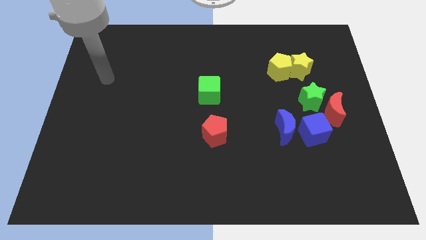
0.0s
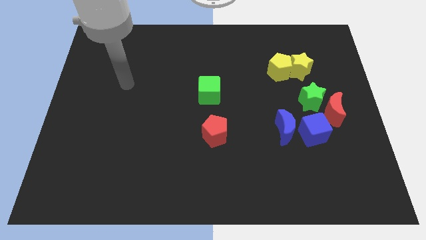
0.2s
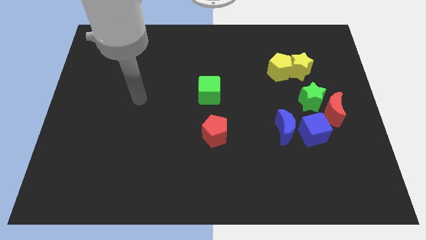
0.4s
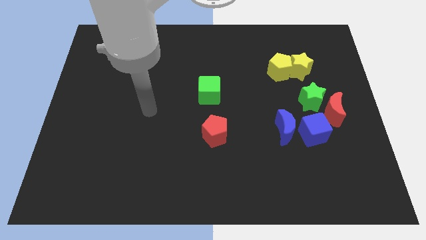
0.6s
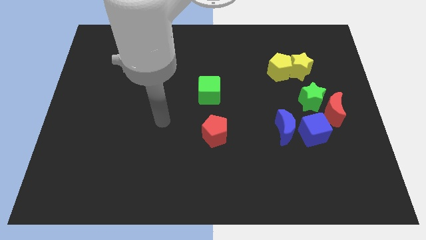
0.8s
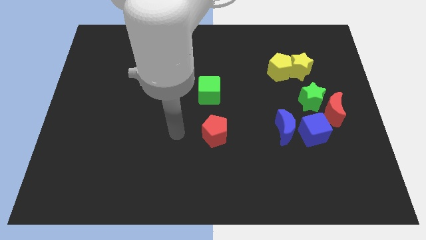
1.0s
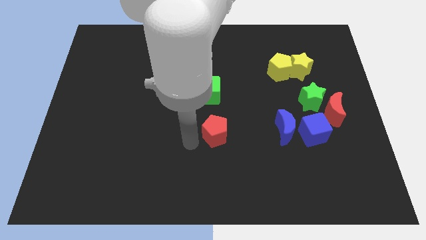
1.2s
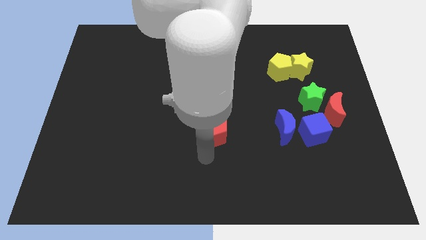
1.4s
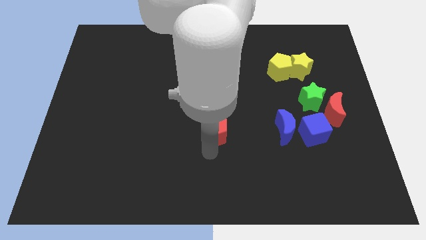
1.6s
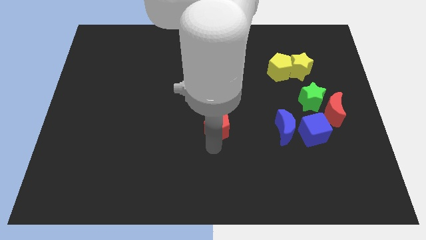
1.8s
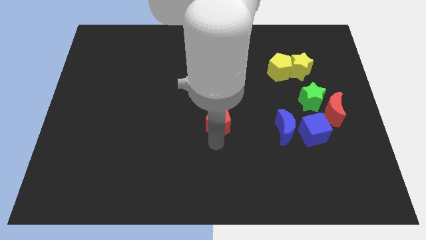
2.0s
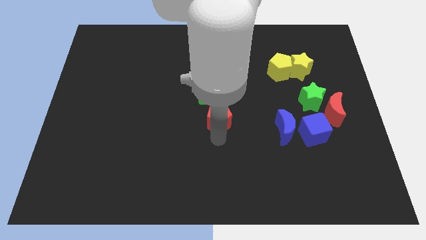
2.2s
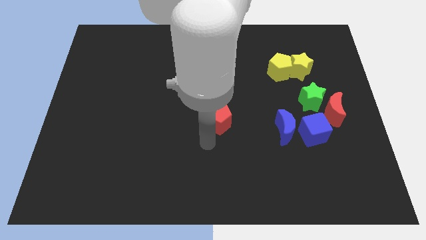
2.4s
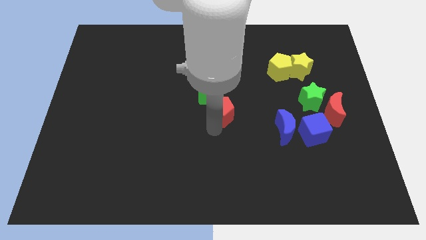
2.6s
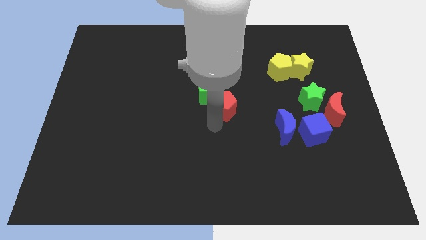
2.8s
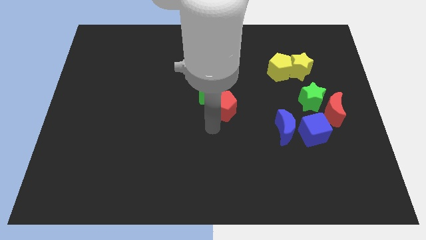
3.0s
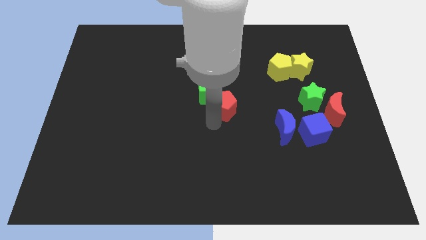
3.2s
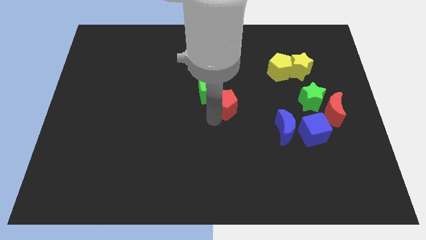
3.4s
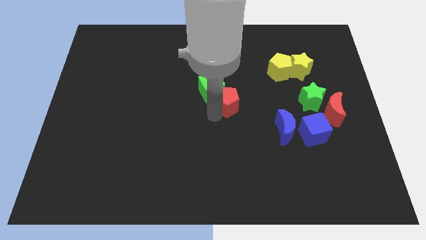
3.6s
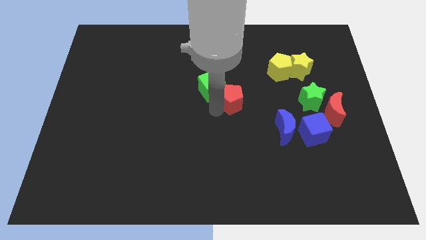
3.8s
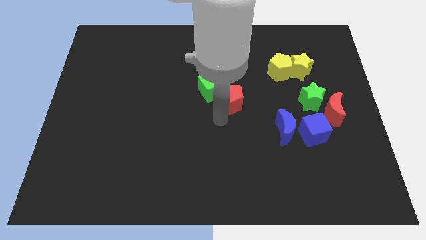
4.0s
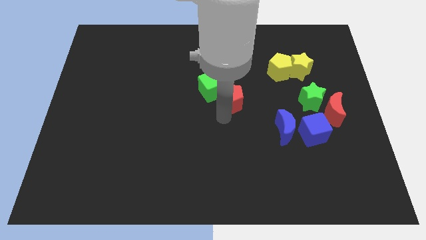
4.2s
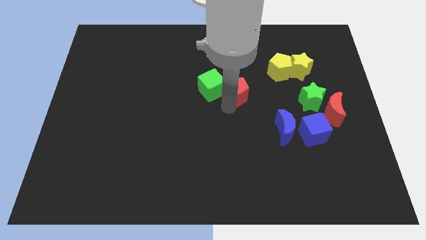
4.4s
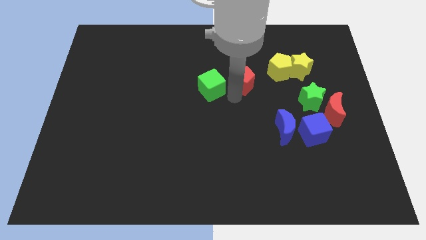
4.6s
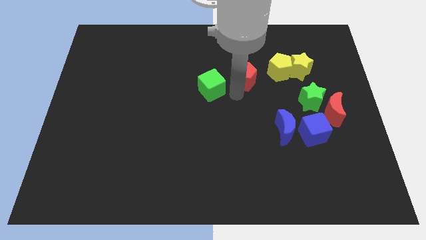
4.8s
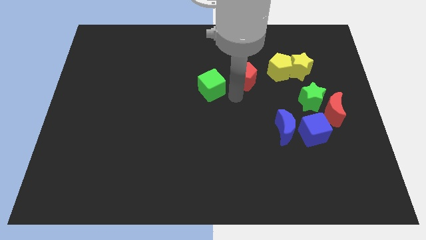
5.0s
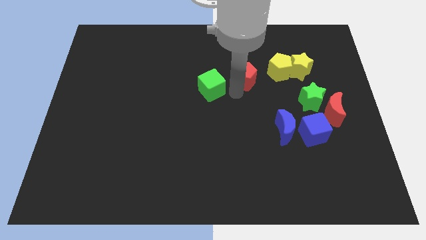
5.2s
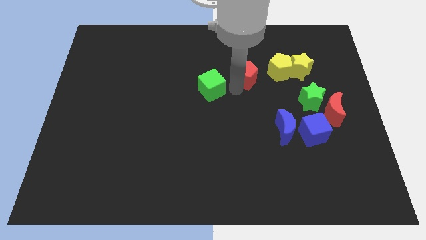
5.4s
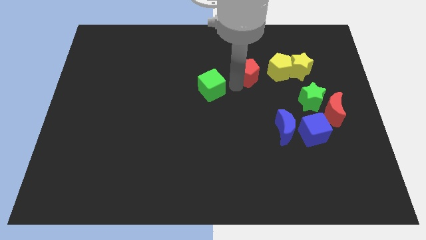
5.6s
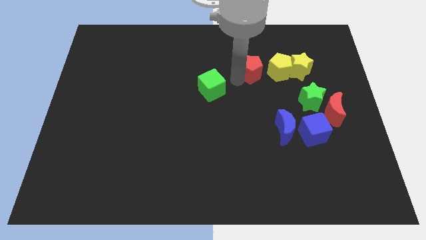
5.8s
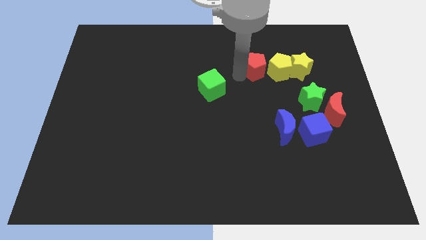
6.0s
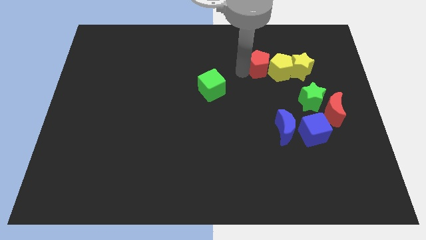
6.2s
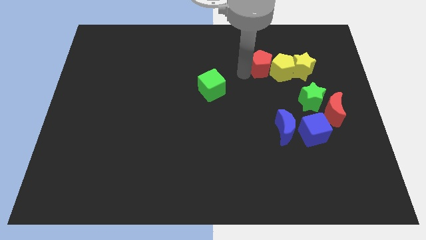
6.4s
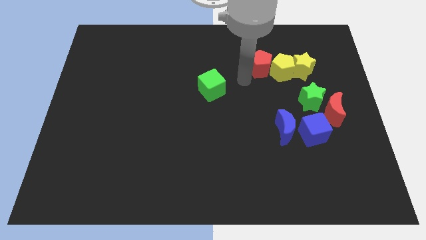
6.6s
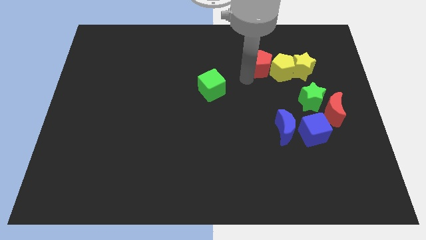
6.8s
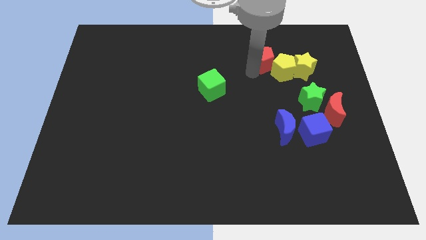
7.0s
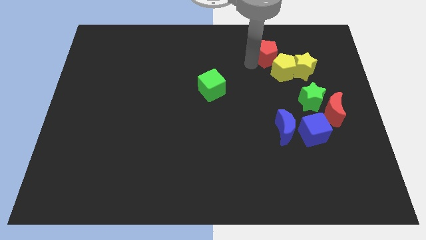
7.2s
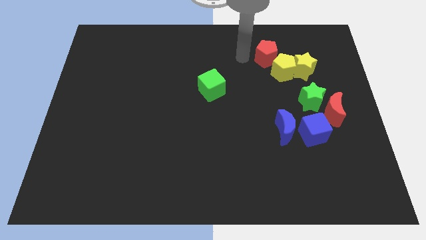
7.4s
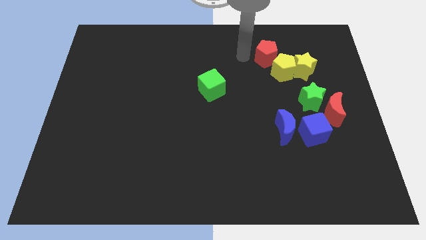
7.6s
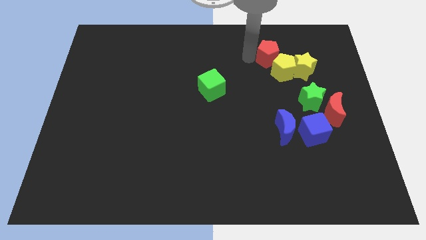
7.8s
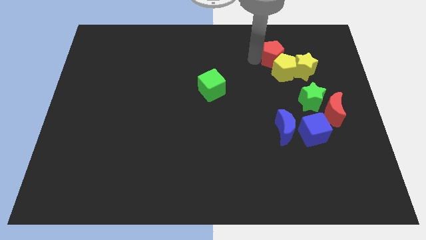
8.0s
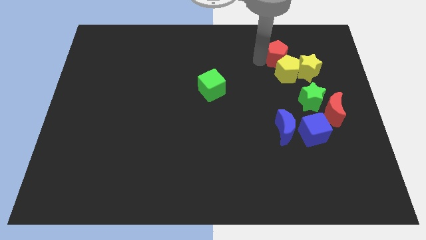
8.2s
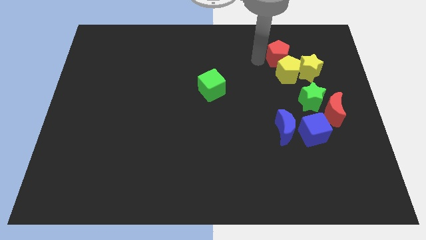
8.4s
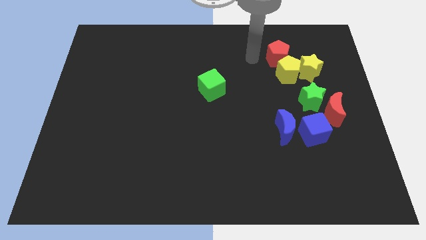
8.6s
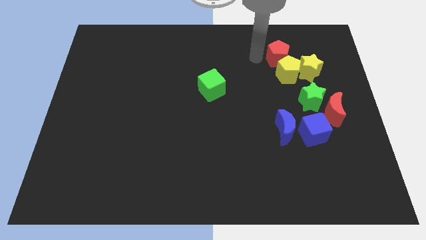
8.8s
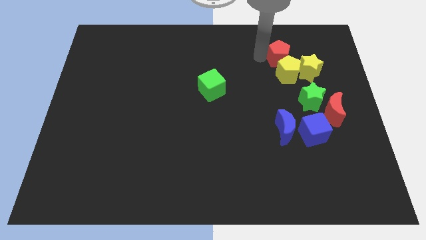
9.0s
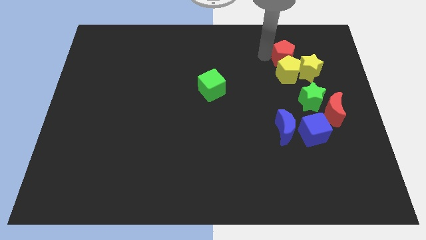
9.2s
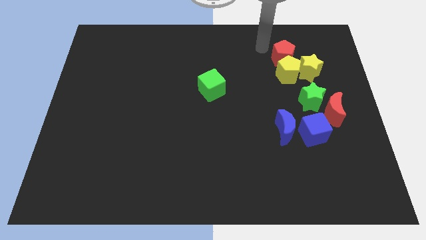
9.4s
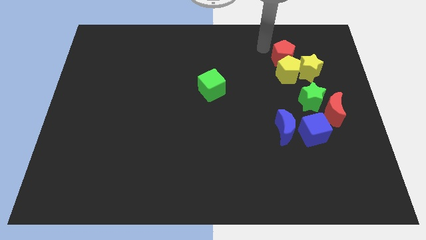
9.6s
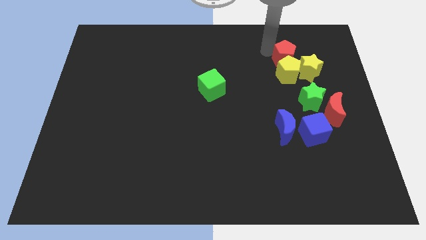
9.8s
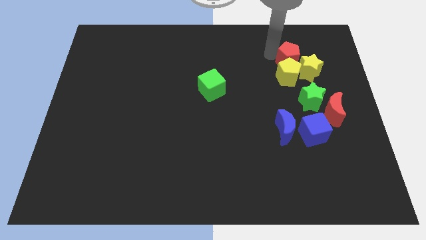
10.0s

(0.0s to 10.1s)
move the red pentagon above the green star

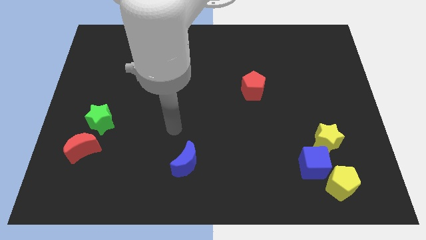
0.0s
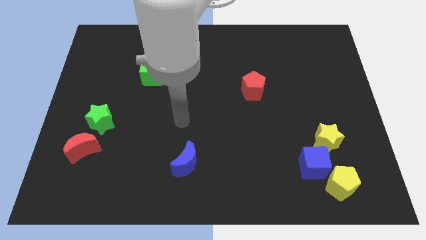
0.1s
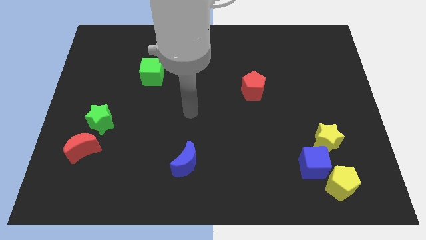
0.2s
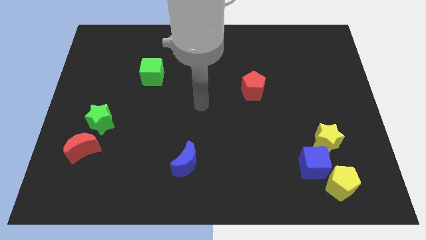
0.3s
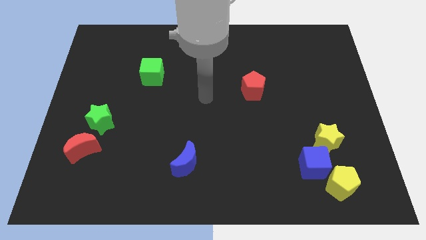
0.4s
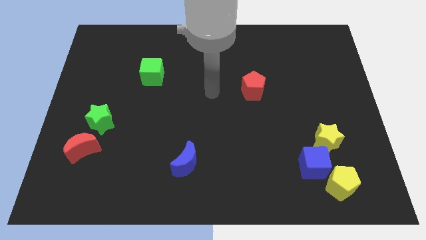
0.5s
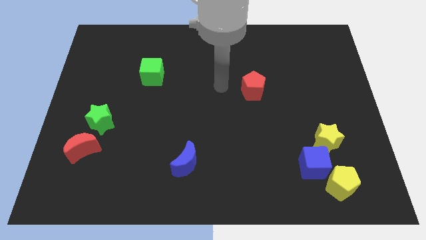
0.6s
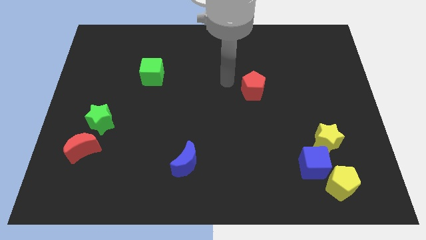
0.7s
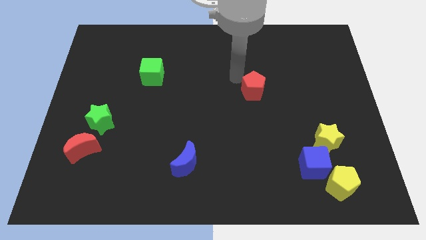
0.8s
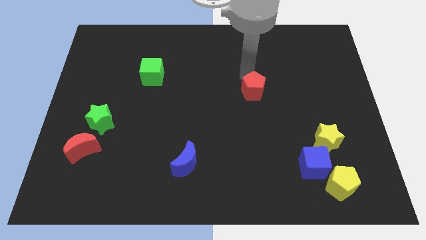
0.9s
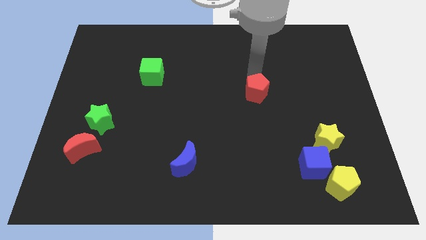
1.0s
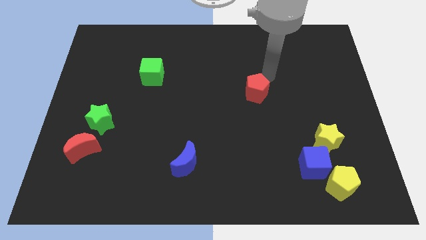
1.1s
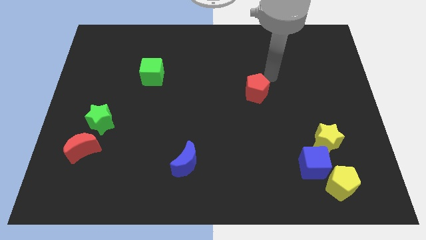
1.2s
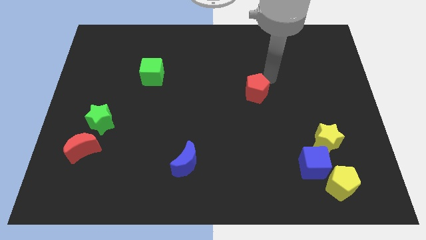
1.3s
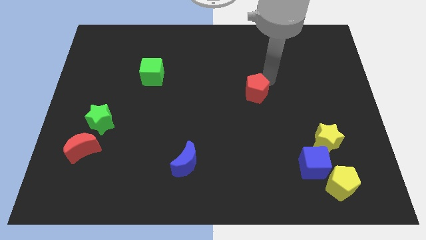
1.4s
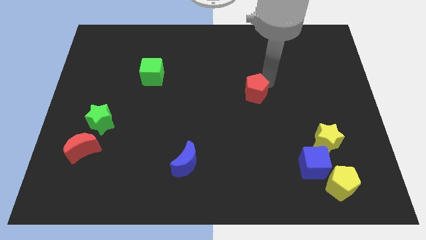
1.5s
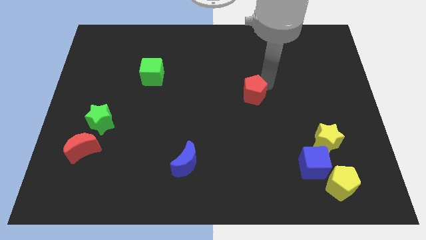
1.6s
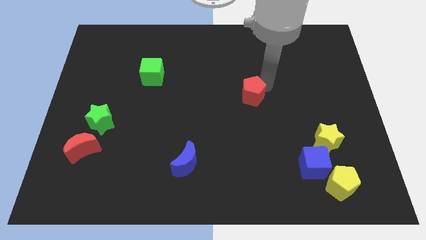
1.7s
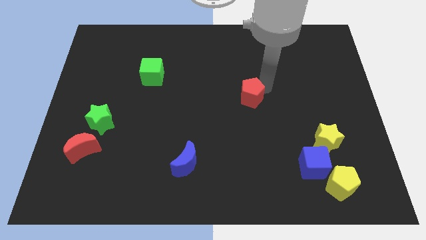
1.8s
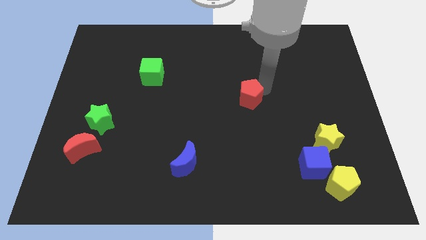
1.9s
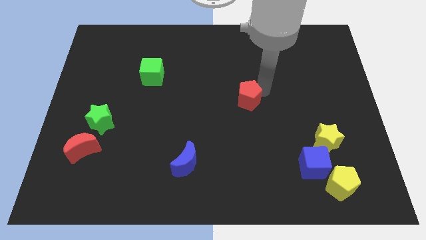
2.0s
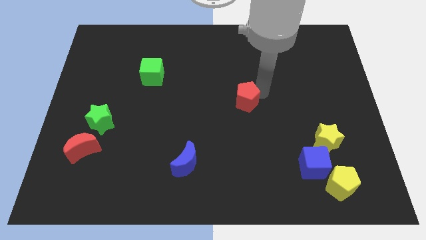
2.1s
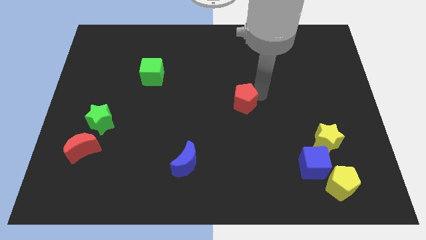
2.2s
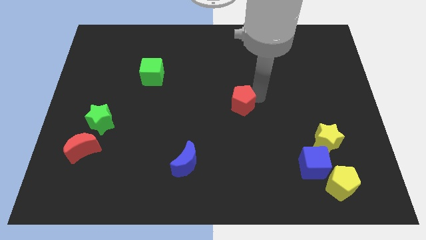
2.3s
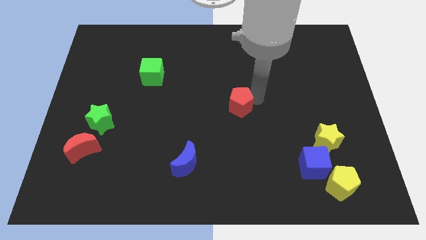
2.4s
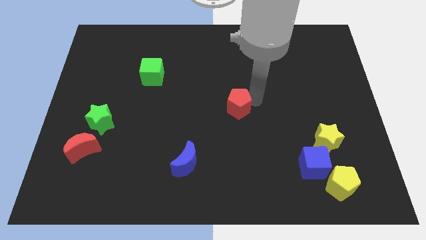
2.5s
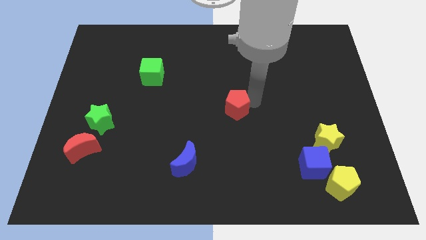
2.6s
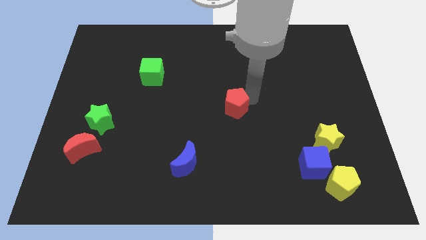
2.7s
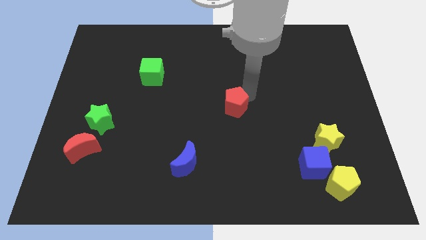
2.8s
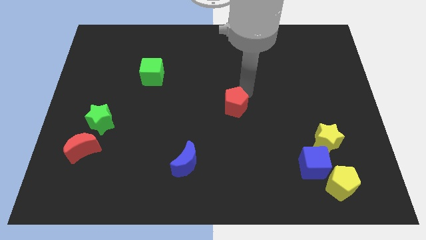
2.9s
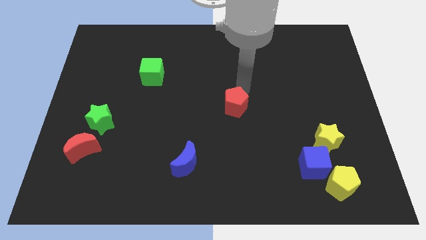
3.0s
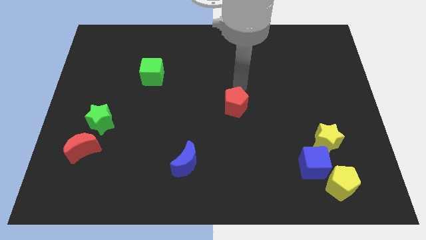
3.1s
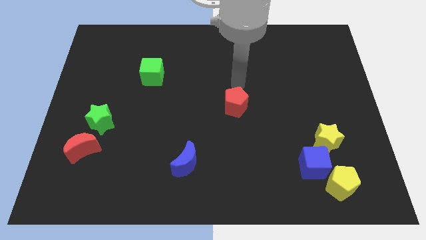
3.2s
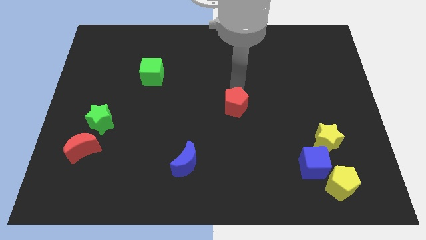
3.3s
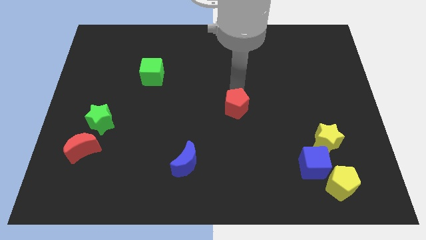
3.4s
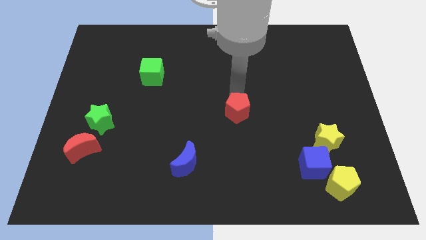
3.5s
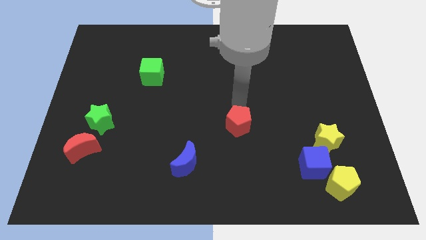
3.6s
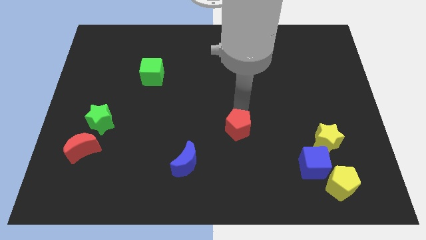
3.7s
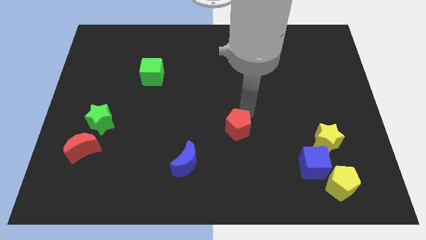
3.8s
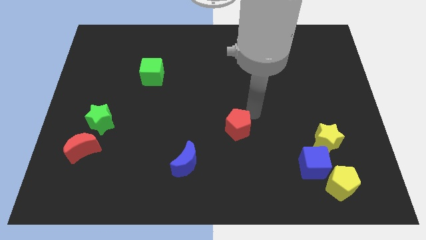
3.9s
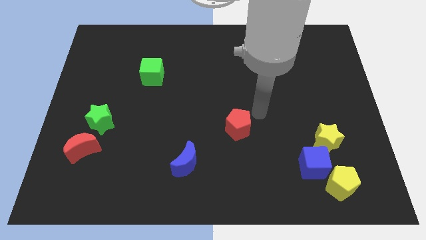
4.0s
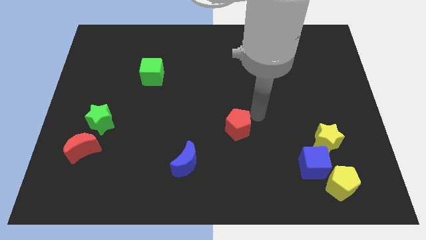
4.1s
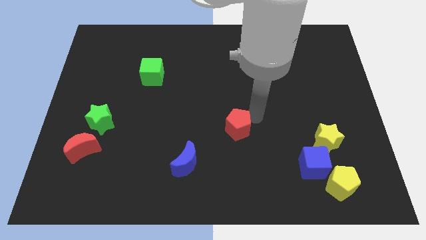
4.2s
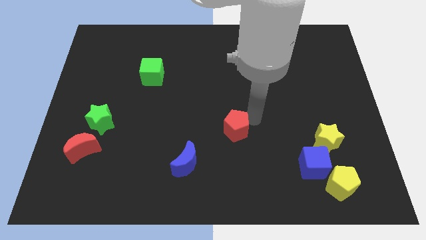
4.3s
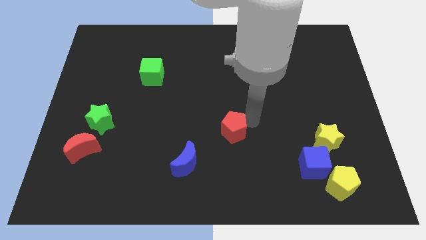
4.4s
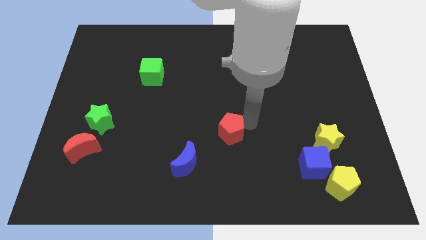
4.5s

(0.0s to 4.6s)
put the red pentagon to the top right of the blue moon
